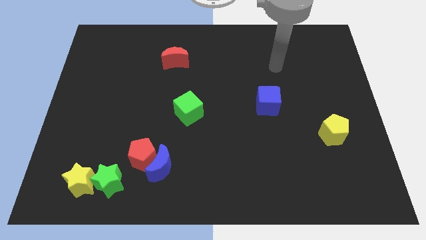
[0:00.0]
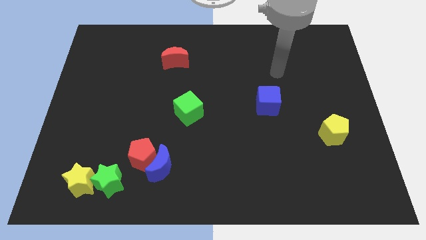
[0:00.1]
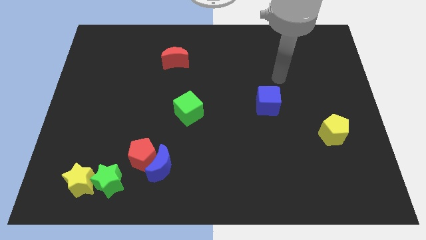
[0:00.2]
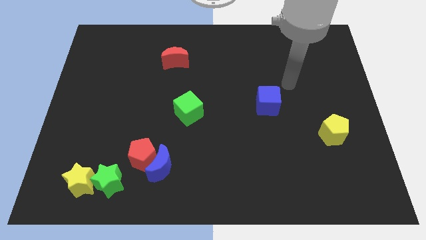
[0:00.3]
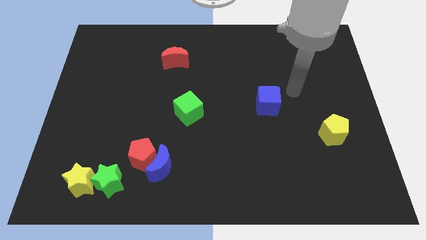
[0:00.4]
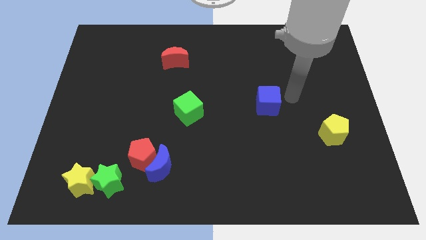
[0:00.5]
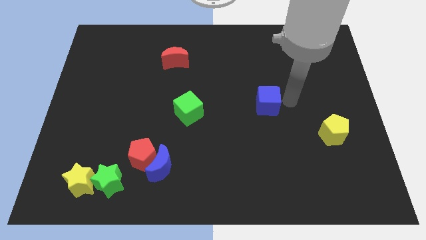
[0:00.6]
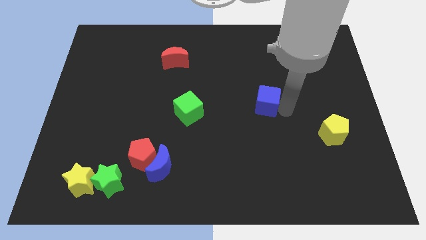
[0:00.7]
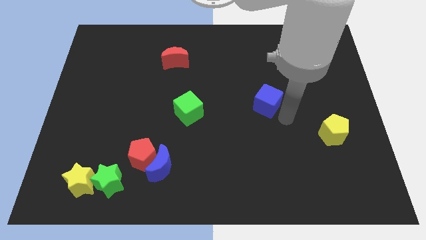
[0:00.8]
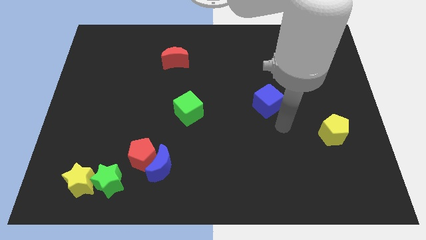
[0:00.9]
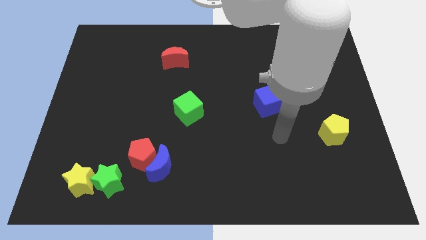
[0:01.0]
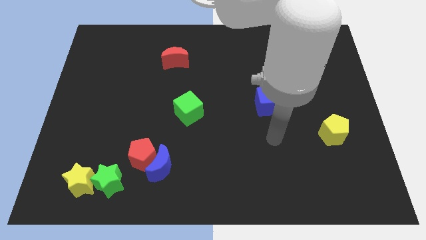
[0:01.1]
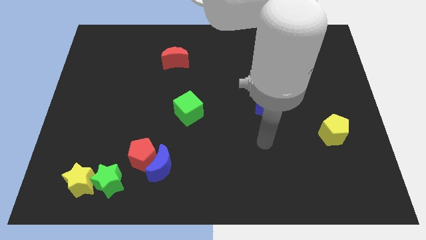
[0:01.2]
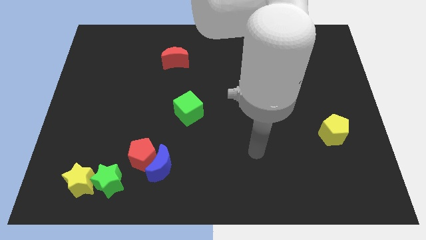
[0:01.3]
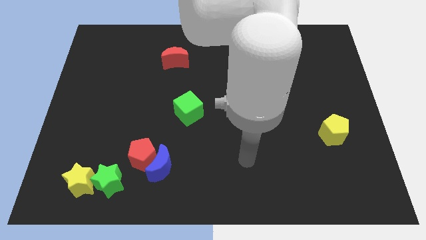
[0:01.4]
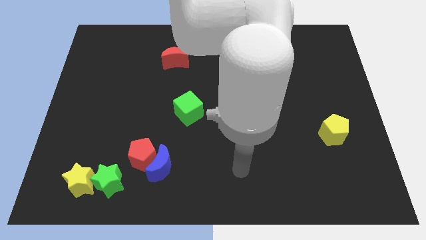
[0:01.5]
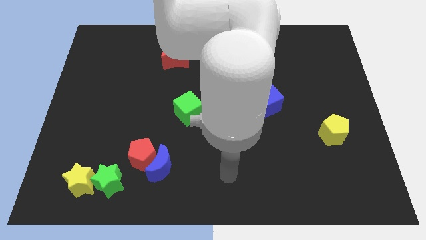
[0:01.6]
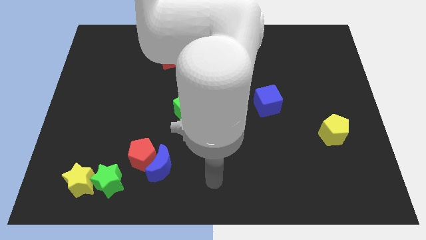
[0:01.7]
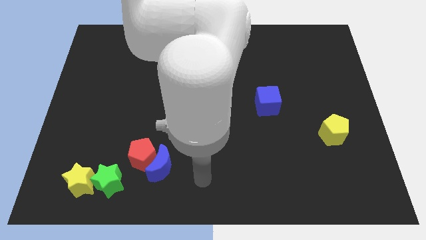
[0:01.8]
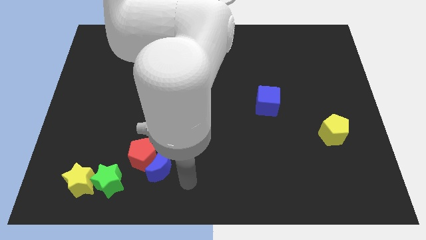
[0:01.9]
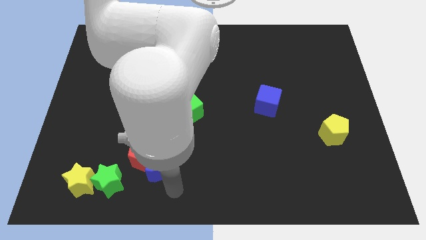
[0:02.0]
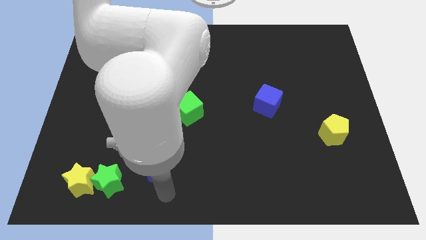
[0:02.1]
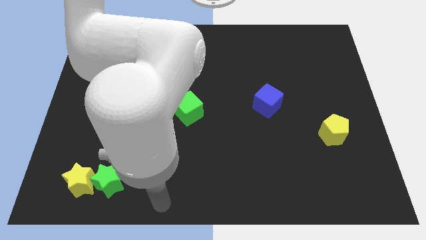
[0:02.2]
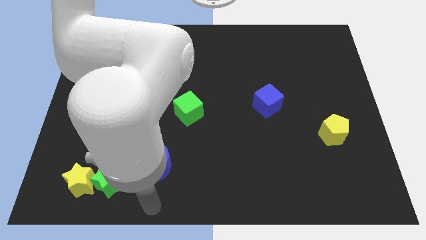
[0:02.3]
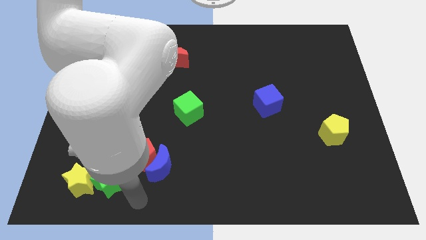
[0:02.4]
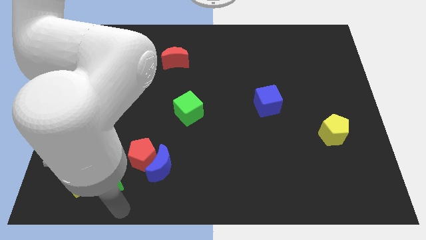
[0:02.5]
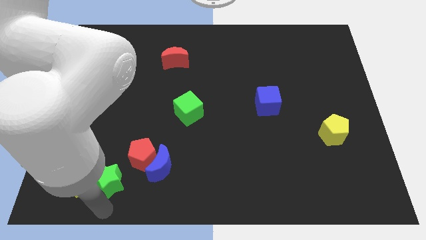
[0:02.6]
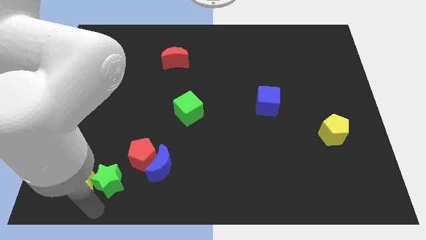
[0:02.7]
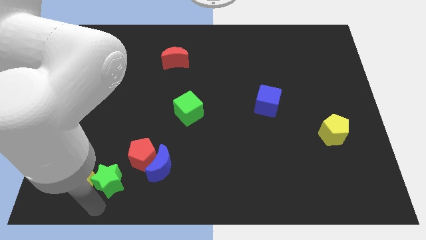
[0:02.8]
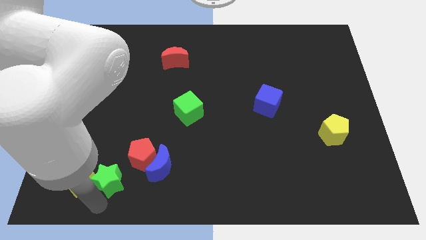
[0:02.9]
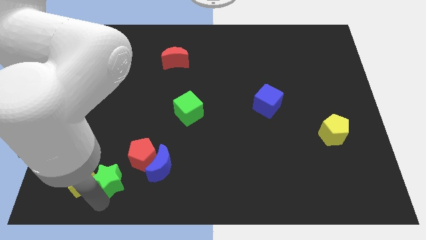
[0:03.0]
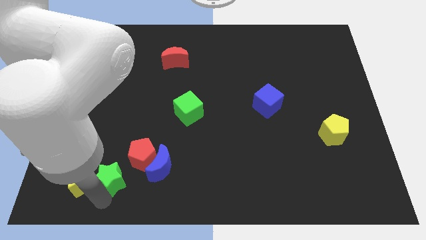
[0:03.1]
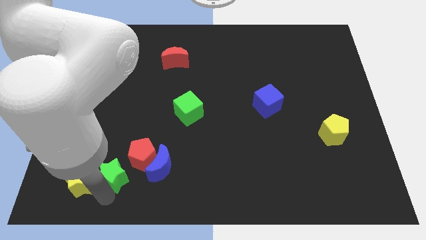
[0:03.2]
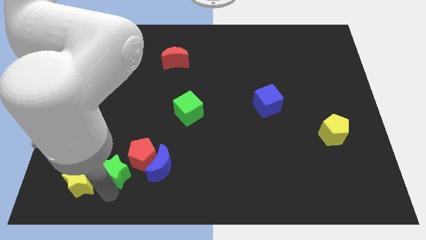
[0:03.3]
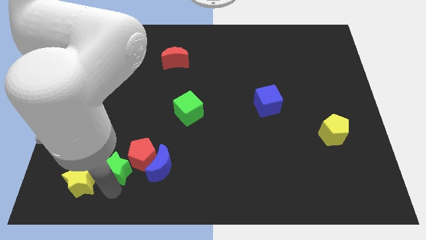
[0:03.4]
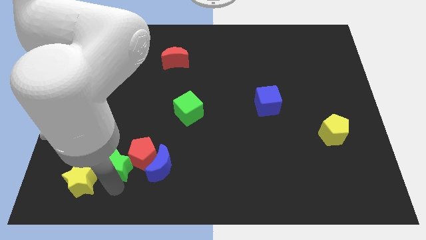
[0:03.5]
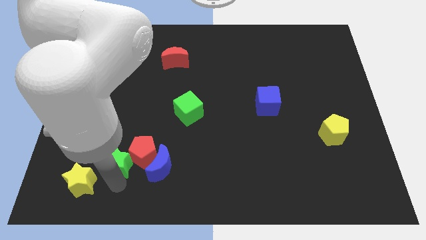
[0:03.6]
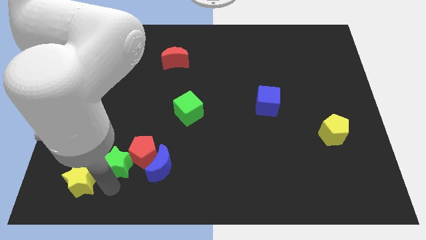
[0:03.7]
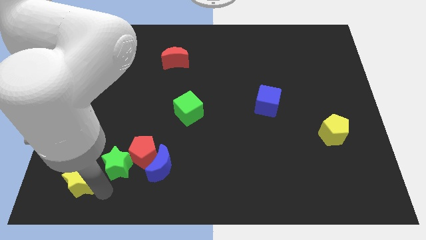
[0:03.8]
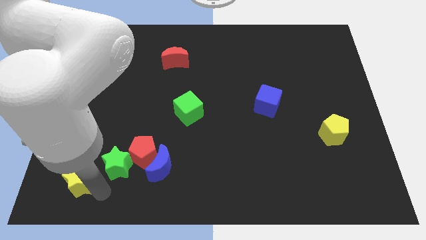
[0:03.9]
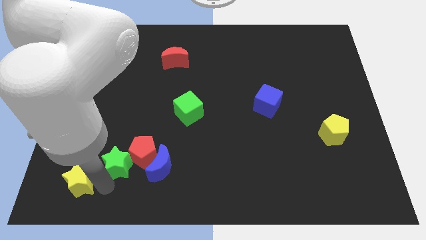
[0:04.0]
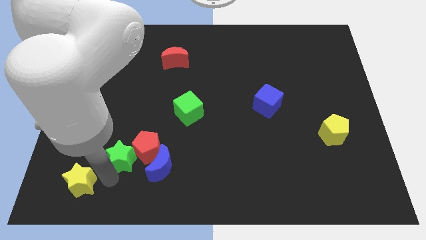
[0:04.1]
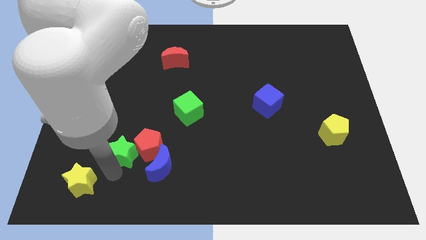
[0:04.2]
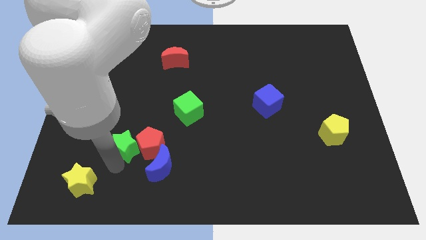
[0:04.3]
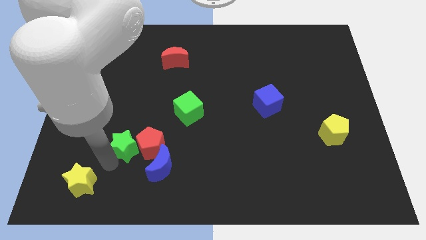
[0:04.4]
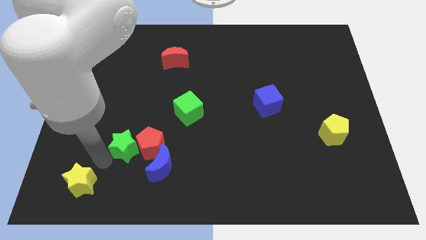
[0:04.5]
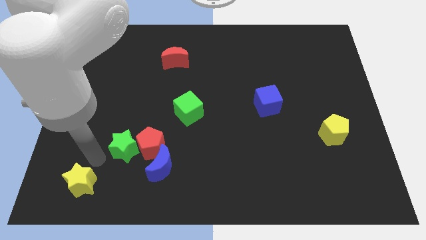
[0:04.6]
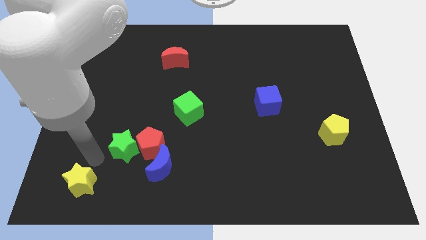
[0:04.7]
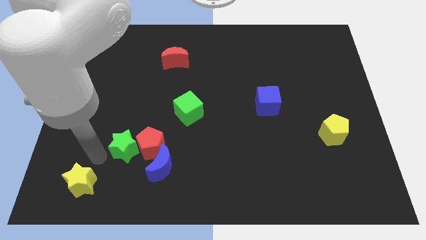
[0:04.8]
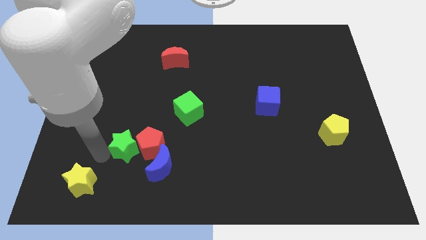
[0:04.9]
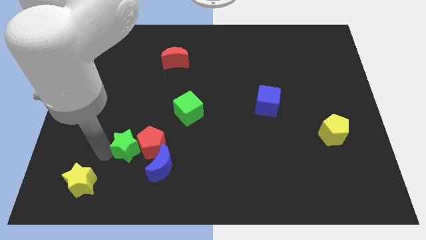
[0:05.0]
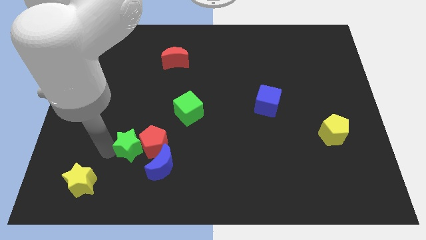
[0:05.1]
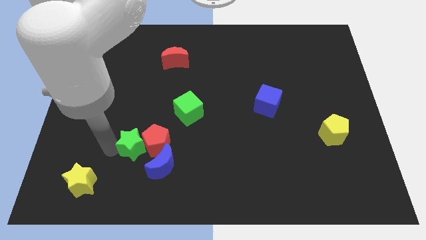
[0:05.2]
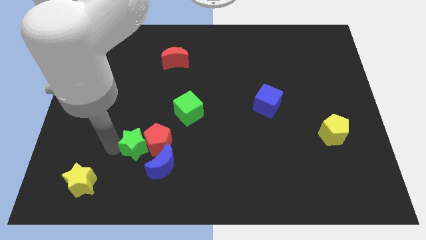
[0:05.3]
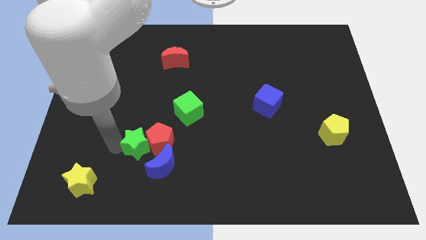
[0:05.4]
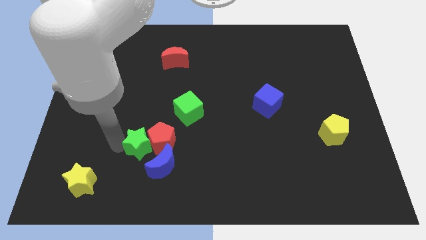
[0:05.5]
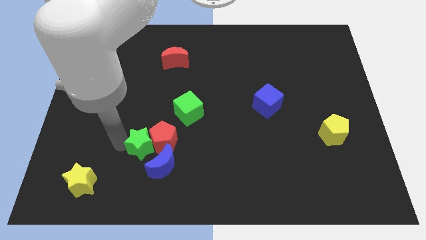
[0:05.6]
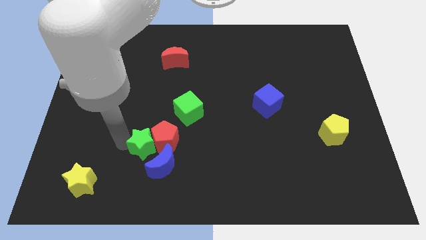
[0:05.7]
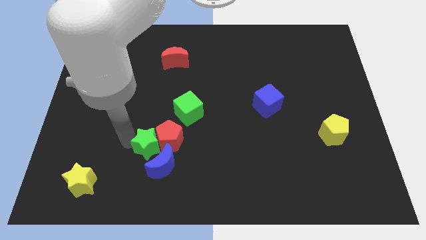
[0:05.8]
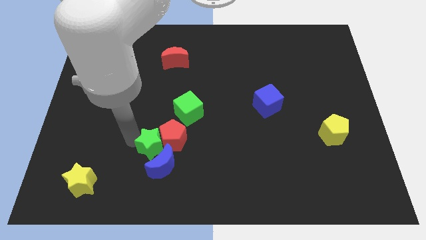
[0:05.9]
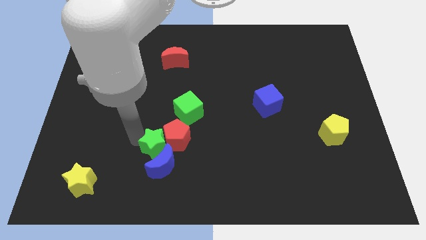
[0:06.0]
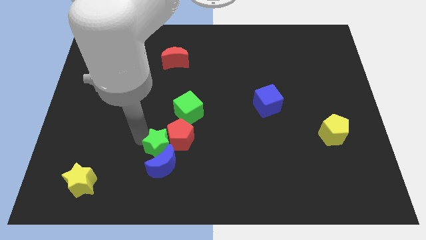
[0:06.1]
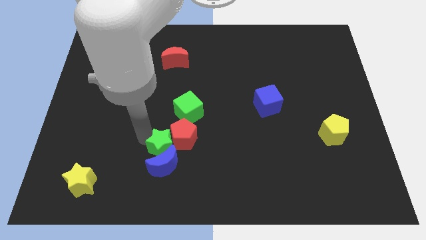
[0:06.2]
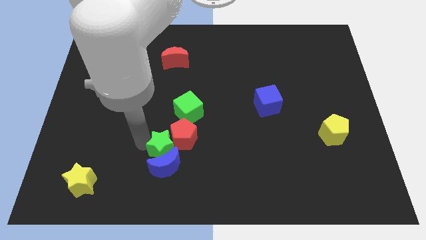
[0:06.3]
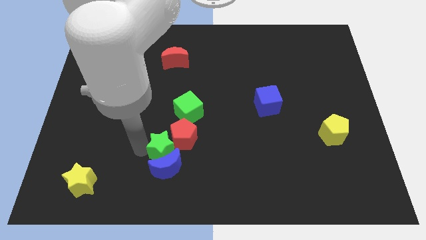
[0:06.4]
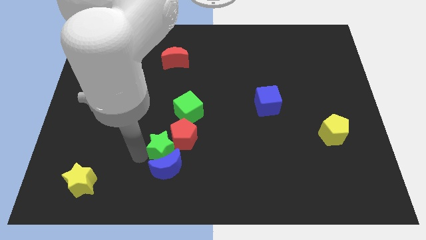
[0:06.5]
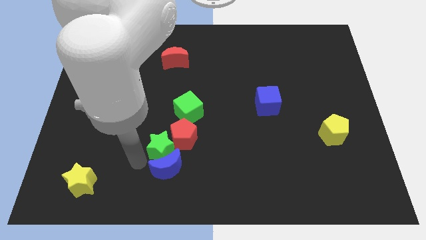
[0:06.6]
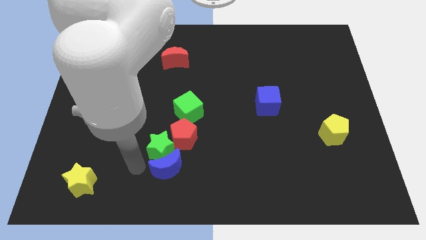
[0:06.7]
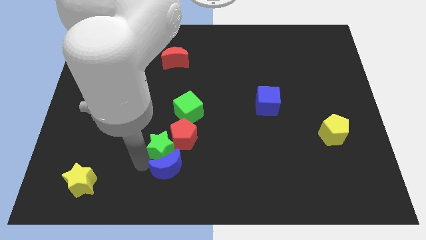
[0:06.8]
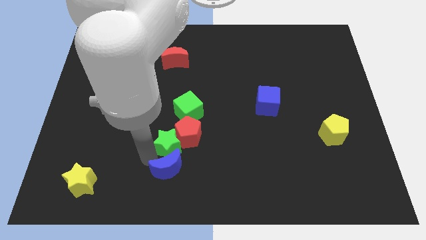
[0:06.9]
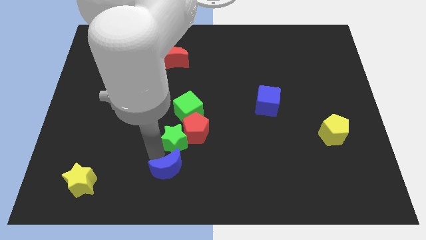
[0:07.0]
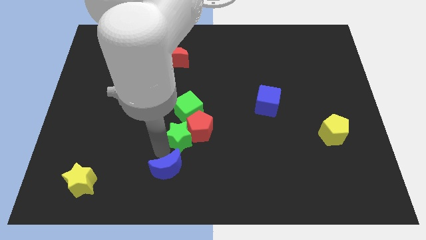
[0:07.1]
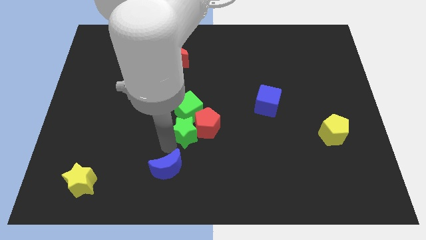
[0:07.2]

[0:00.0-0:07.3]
move the green star to the center of the board
